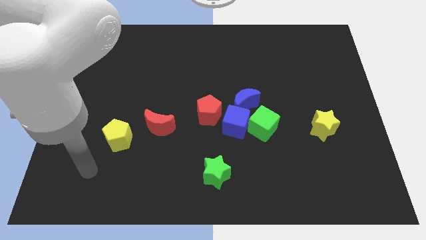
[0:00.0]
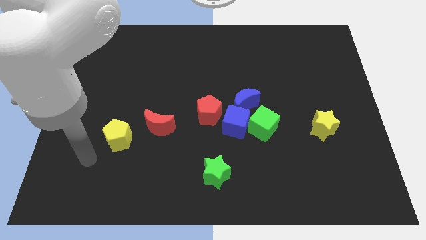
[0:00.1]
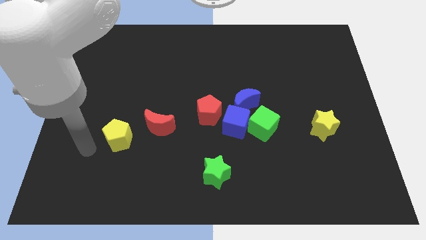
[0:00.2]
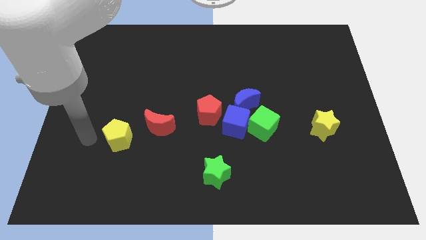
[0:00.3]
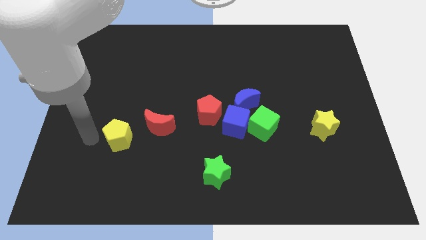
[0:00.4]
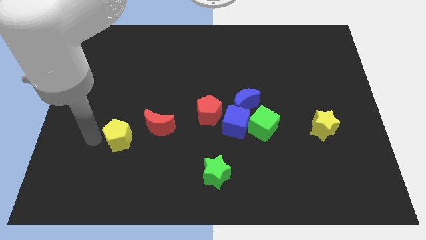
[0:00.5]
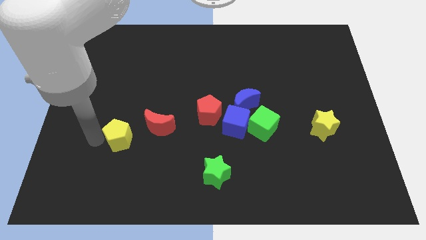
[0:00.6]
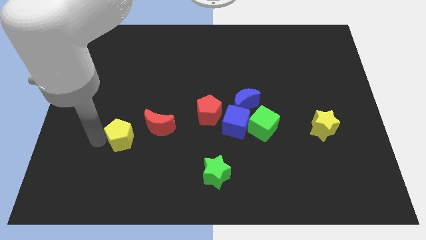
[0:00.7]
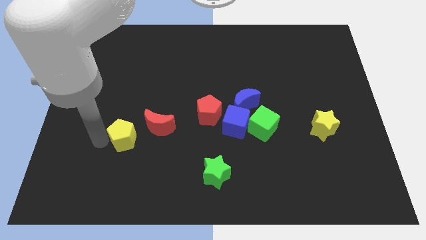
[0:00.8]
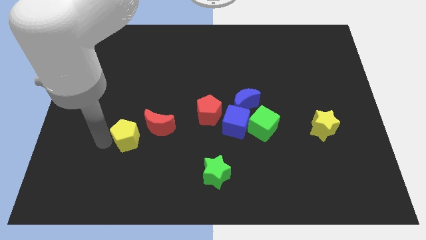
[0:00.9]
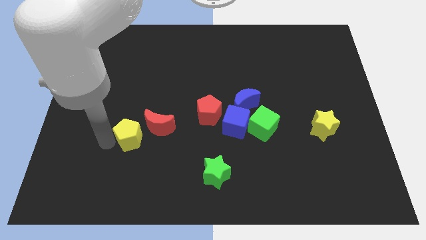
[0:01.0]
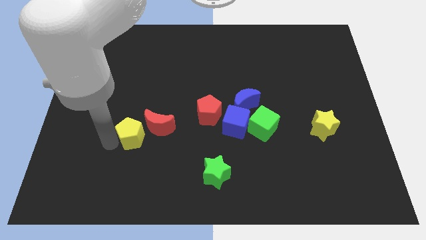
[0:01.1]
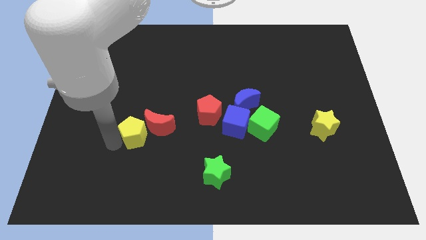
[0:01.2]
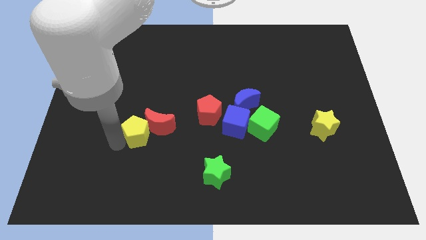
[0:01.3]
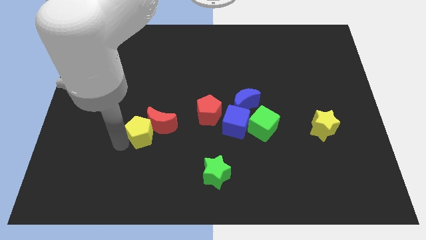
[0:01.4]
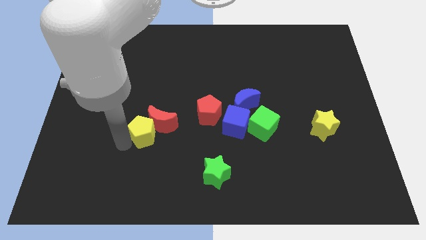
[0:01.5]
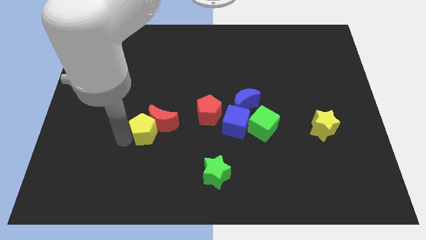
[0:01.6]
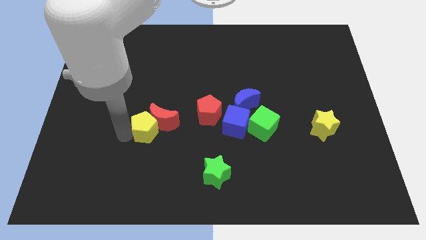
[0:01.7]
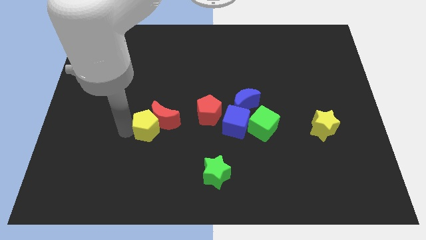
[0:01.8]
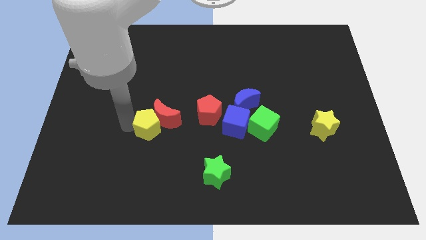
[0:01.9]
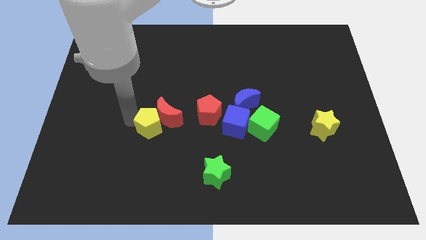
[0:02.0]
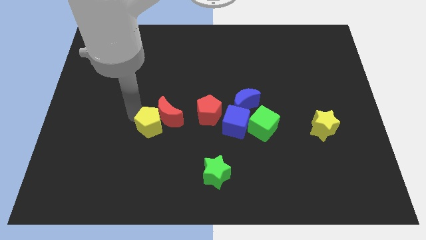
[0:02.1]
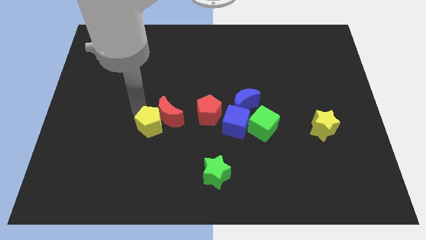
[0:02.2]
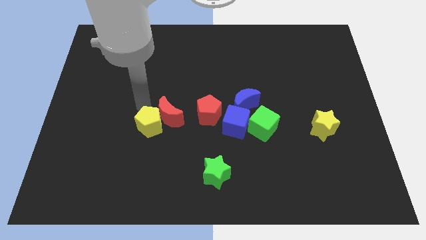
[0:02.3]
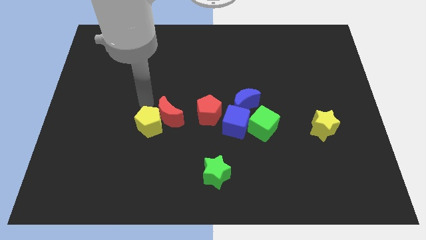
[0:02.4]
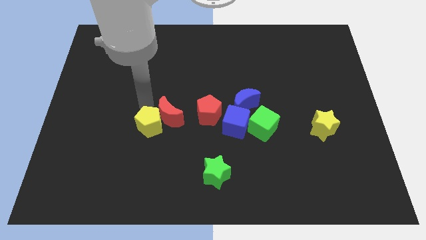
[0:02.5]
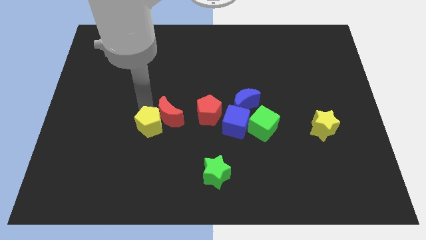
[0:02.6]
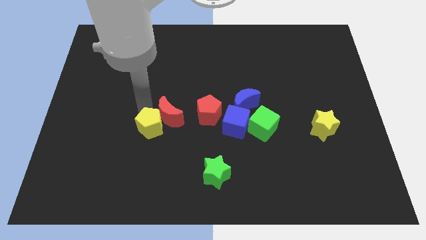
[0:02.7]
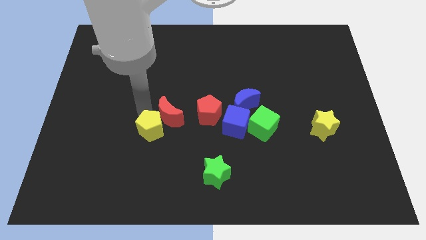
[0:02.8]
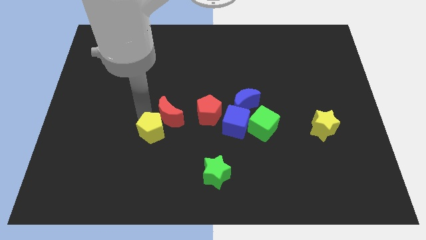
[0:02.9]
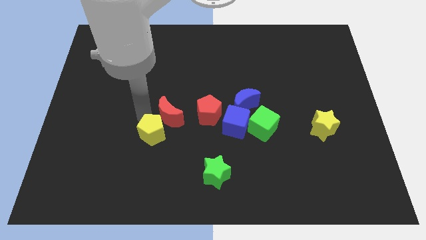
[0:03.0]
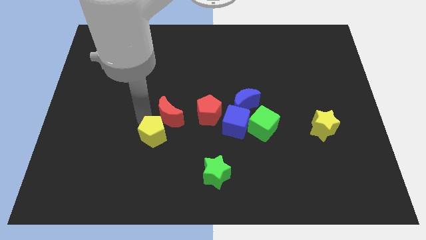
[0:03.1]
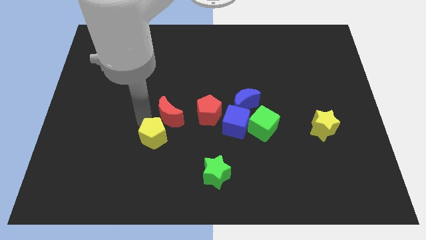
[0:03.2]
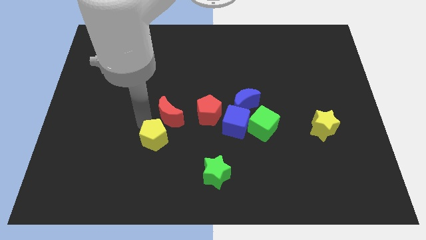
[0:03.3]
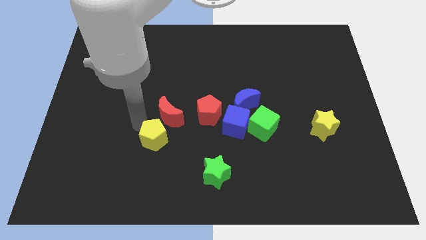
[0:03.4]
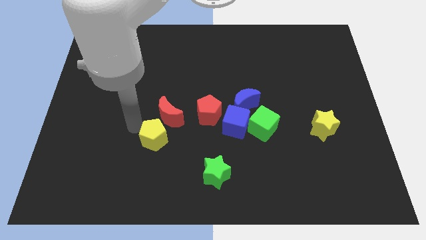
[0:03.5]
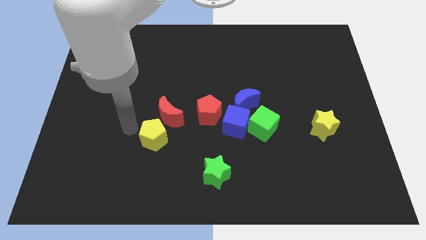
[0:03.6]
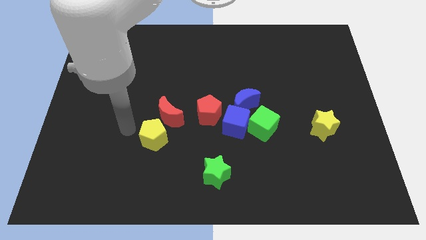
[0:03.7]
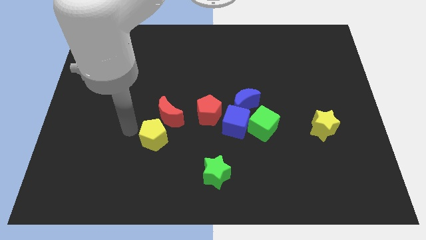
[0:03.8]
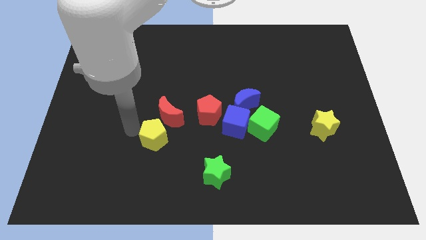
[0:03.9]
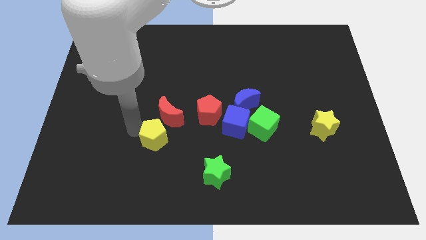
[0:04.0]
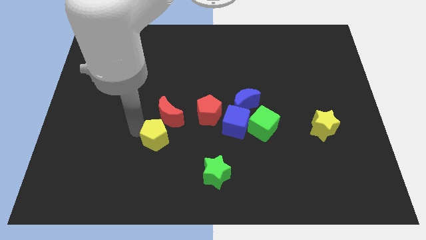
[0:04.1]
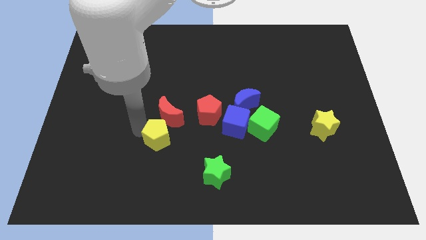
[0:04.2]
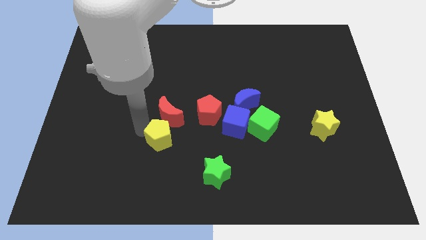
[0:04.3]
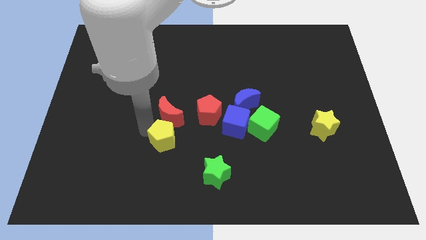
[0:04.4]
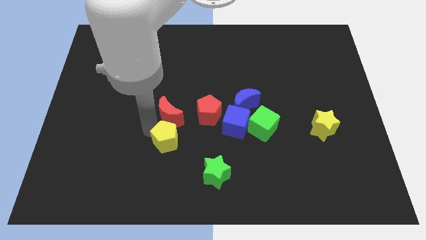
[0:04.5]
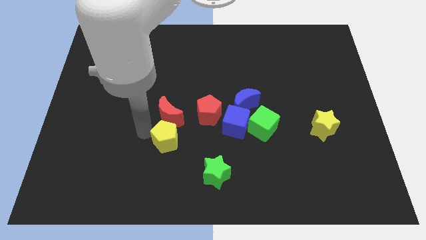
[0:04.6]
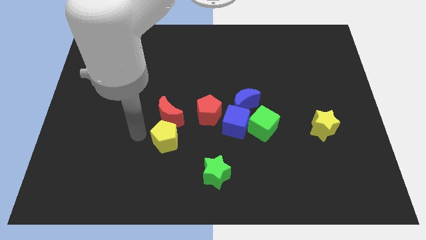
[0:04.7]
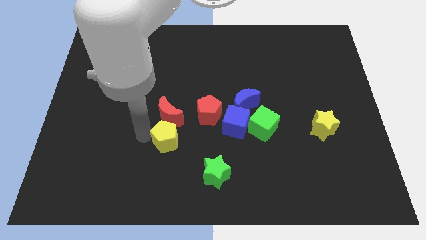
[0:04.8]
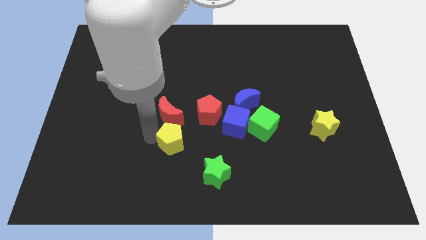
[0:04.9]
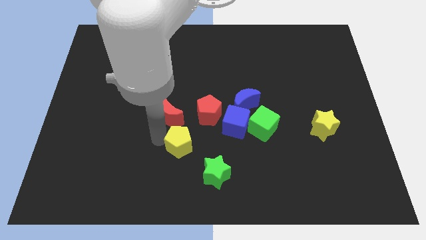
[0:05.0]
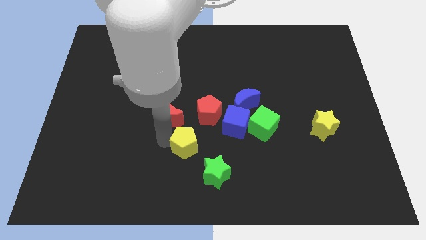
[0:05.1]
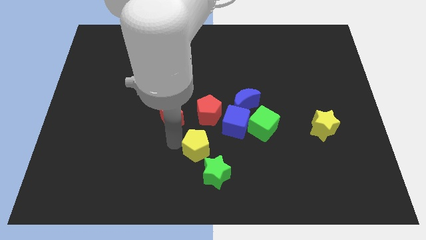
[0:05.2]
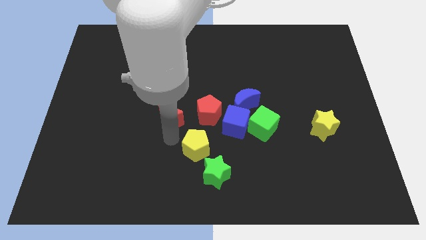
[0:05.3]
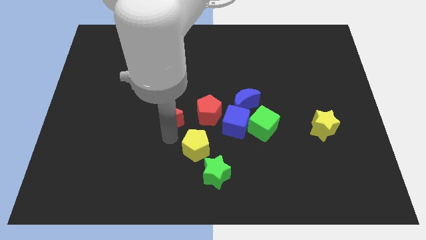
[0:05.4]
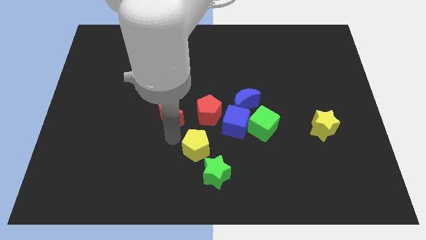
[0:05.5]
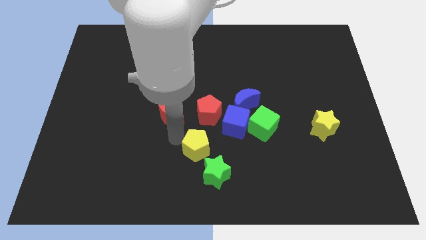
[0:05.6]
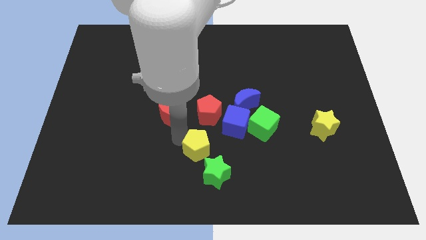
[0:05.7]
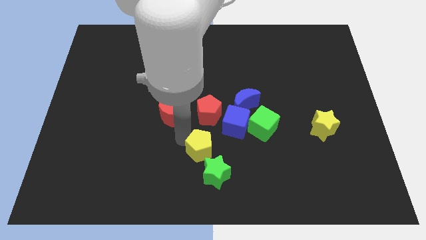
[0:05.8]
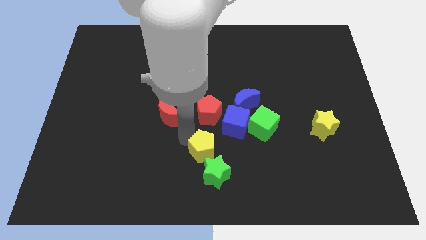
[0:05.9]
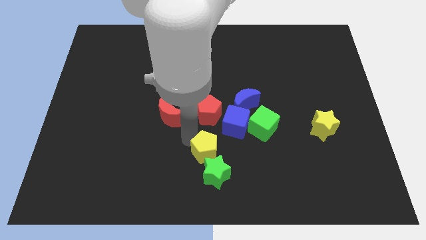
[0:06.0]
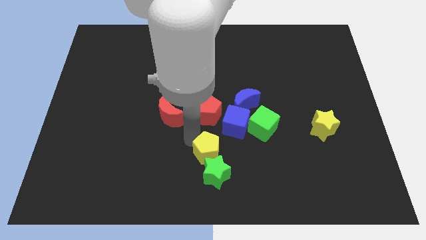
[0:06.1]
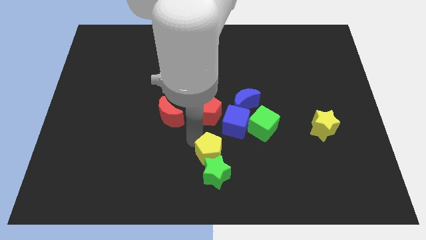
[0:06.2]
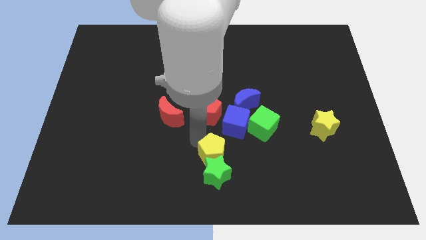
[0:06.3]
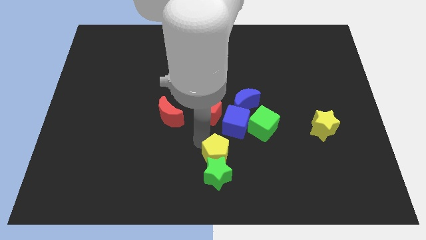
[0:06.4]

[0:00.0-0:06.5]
move the yellow pentagon to the bottom side of the blue cube
